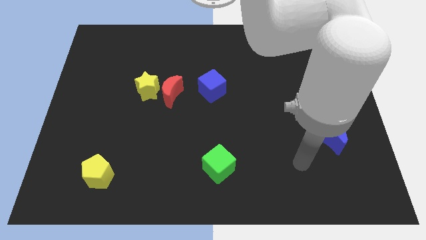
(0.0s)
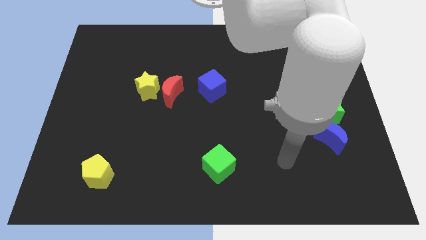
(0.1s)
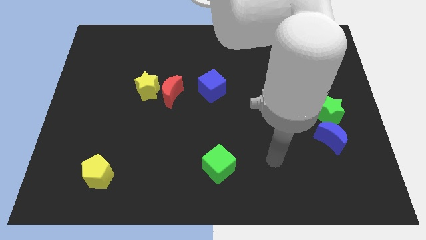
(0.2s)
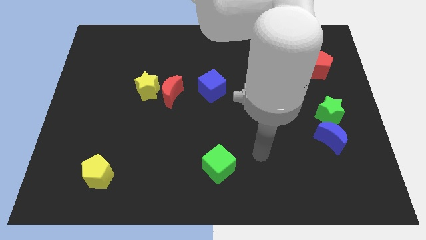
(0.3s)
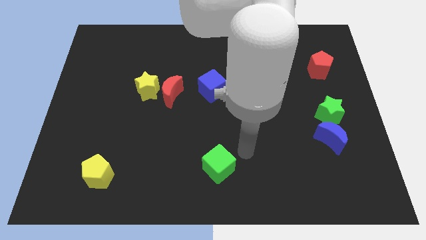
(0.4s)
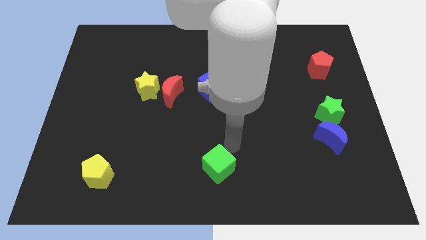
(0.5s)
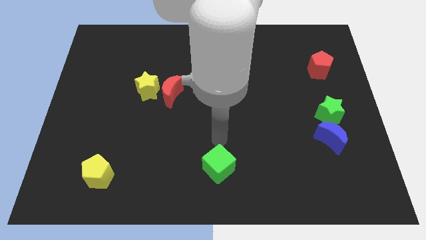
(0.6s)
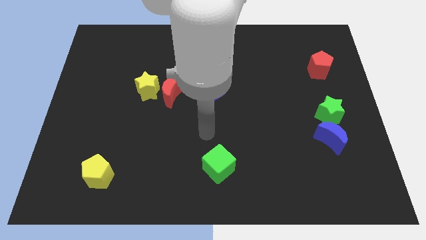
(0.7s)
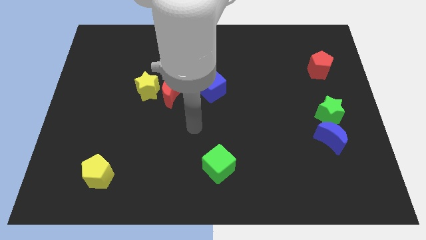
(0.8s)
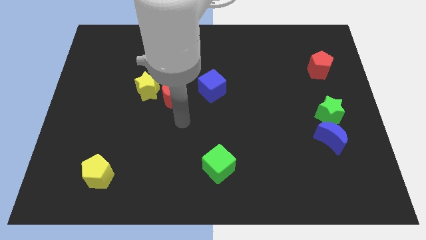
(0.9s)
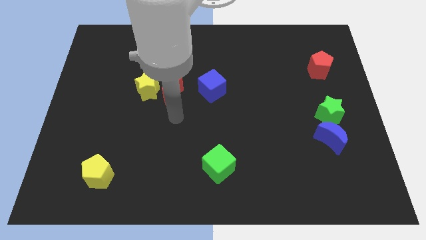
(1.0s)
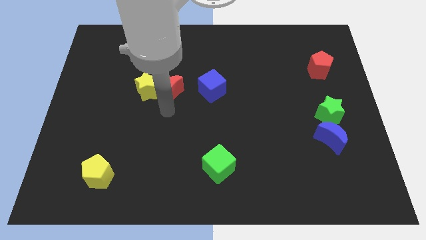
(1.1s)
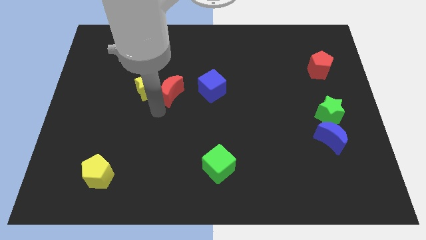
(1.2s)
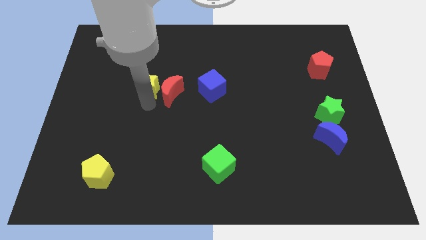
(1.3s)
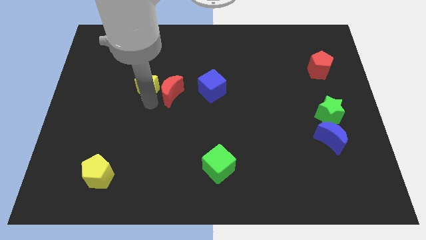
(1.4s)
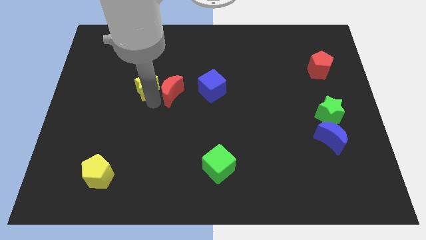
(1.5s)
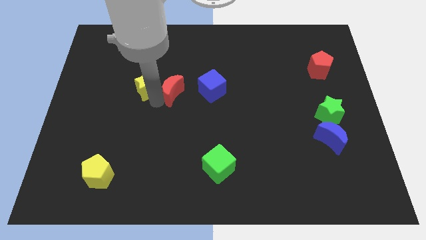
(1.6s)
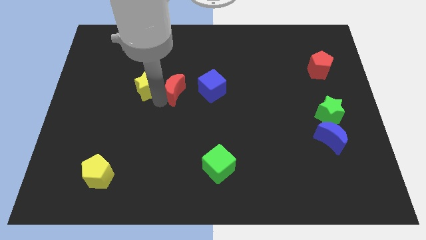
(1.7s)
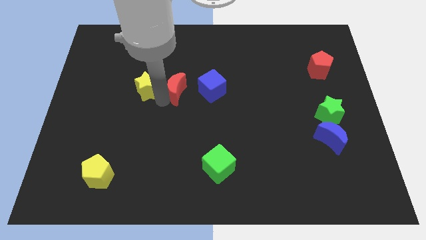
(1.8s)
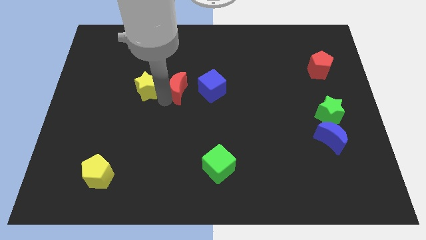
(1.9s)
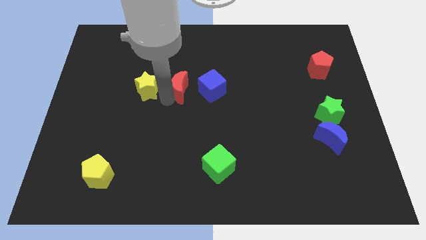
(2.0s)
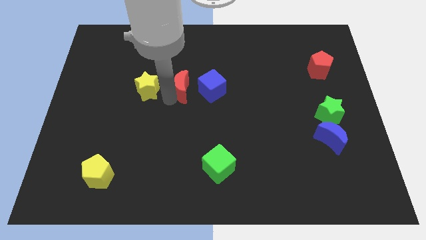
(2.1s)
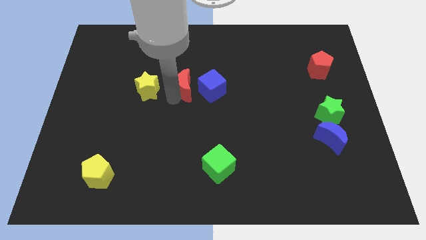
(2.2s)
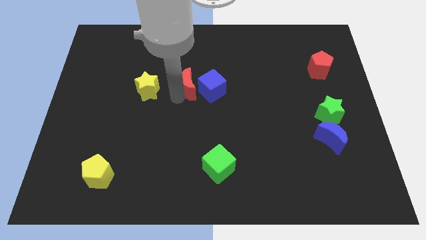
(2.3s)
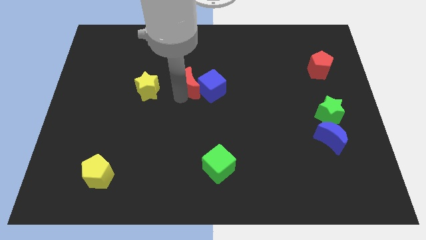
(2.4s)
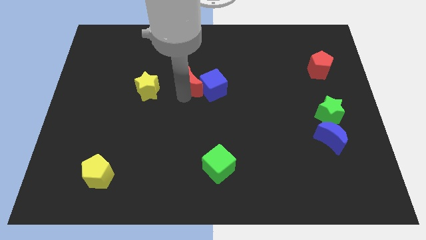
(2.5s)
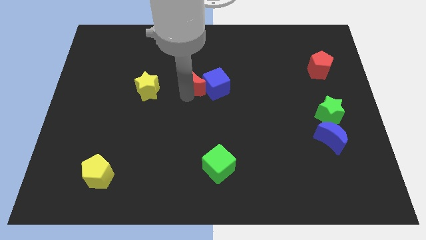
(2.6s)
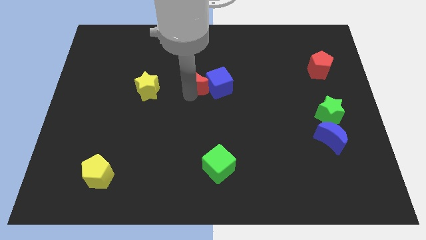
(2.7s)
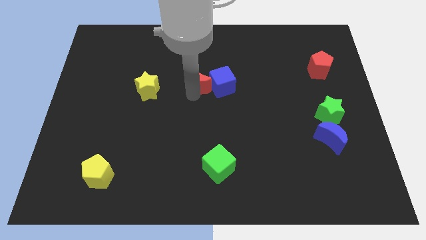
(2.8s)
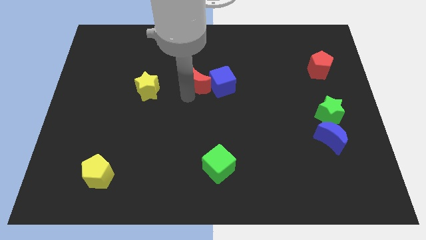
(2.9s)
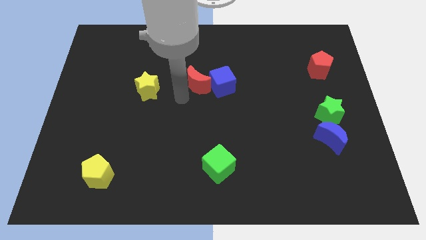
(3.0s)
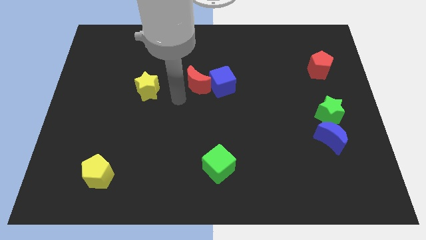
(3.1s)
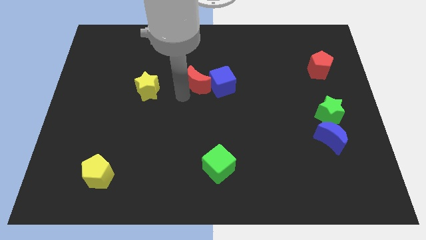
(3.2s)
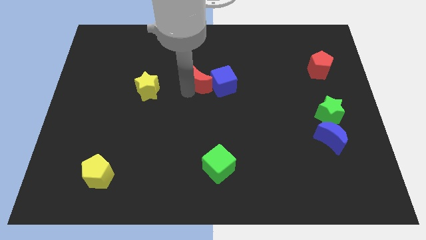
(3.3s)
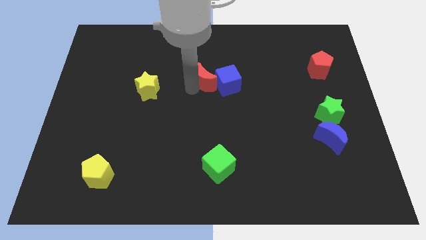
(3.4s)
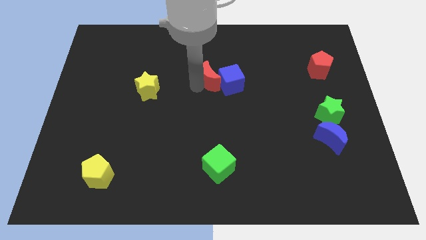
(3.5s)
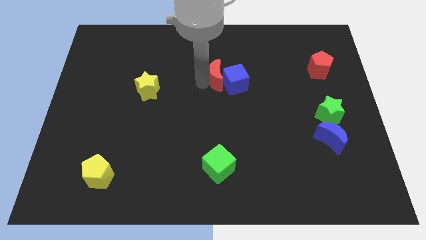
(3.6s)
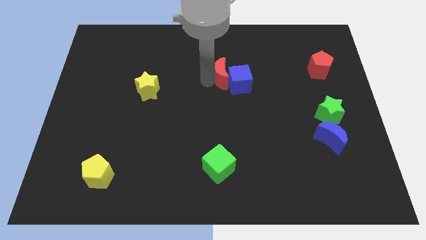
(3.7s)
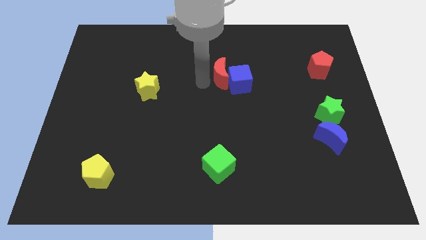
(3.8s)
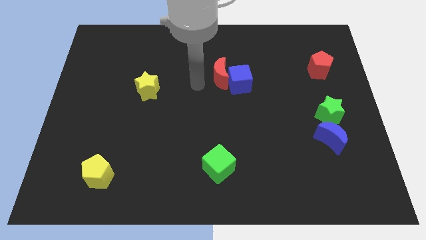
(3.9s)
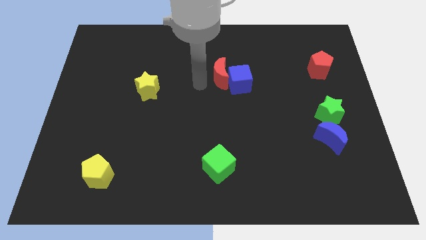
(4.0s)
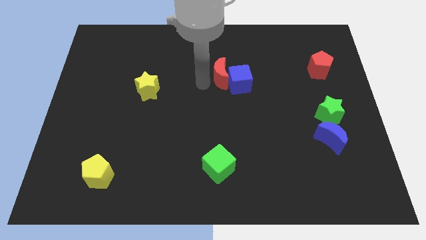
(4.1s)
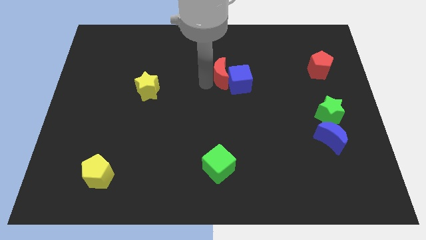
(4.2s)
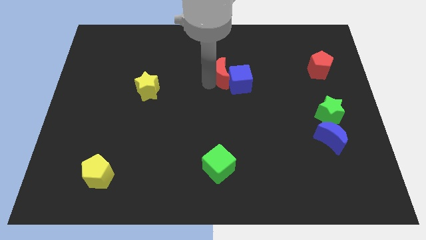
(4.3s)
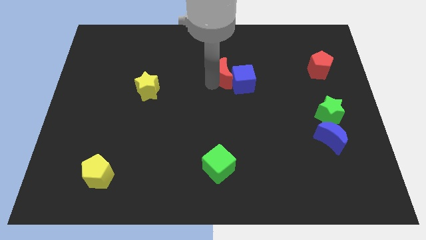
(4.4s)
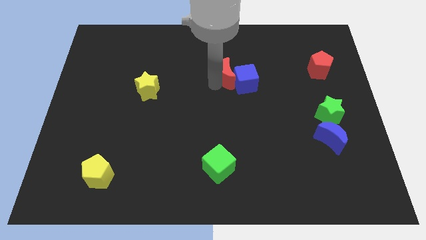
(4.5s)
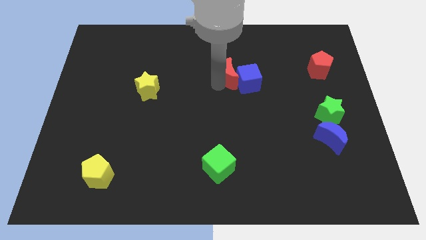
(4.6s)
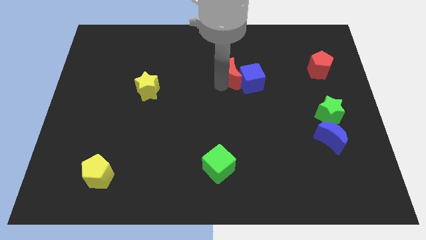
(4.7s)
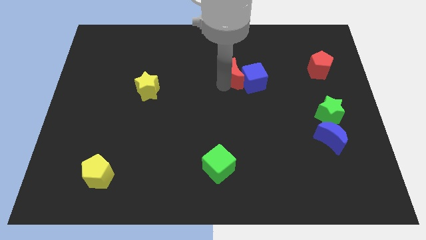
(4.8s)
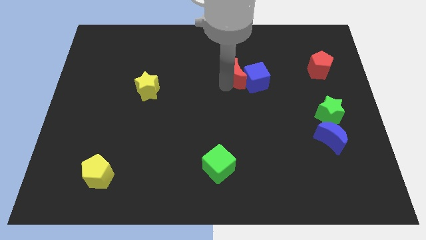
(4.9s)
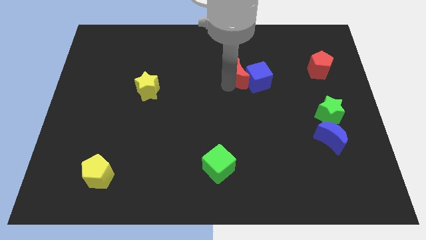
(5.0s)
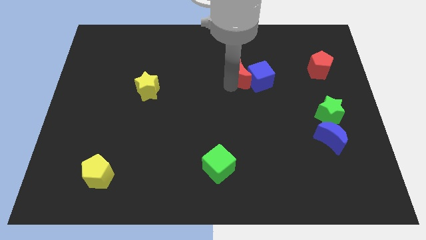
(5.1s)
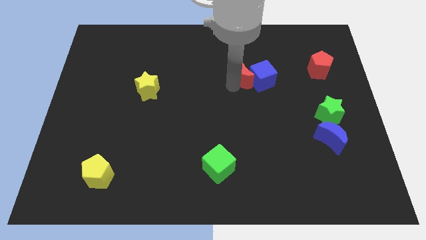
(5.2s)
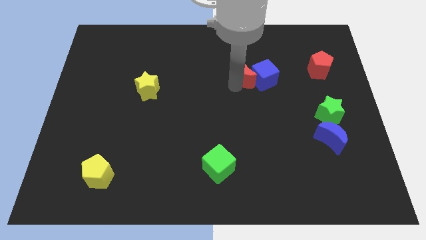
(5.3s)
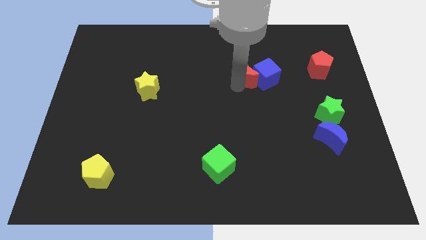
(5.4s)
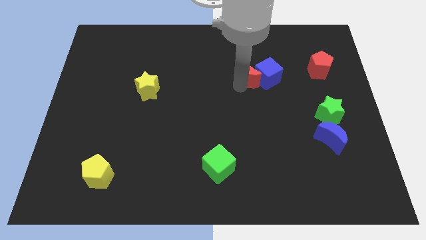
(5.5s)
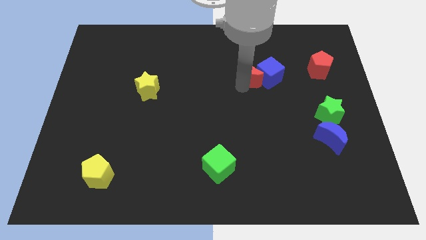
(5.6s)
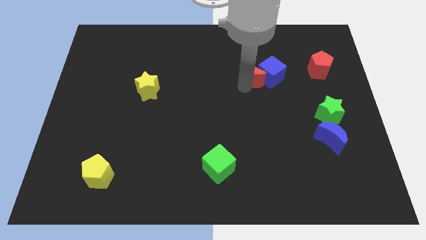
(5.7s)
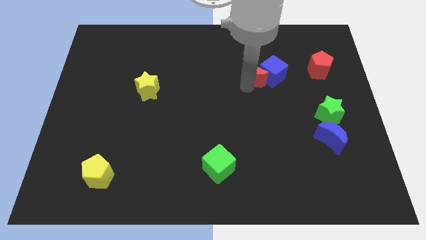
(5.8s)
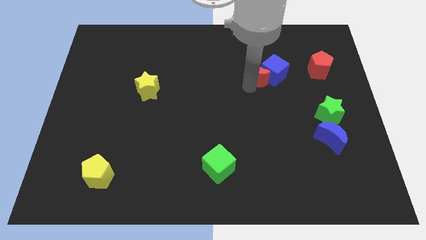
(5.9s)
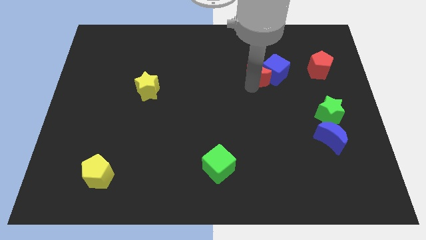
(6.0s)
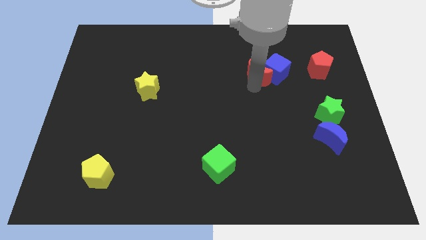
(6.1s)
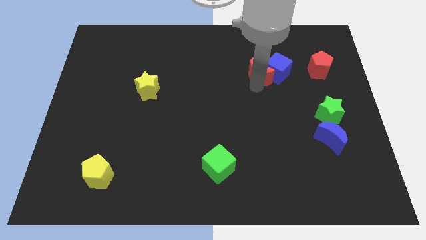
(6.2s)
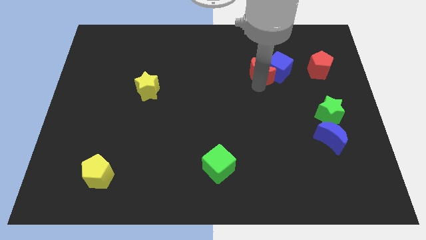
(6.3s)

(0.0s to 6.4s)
move the red moon just left of the red pentagon
